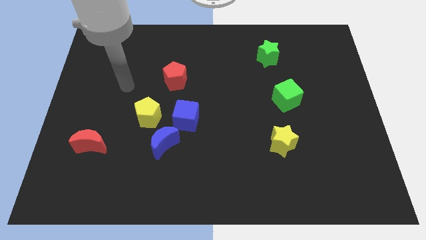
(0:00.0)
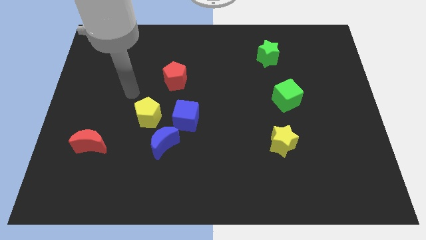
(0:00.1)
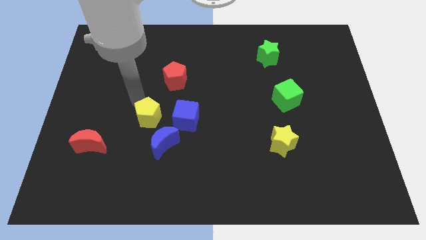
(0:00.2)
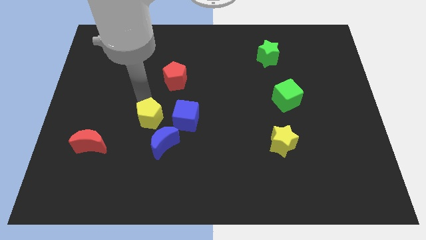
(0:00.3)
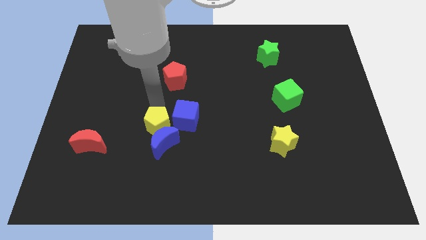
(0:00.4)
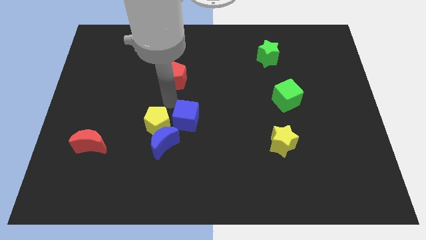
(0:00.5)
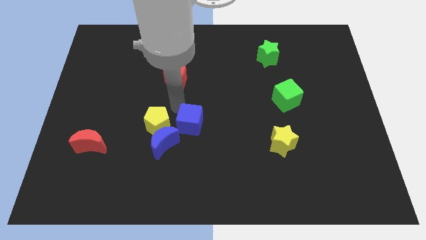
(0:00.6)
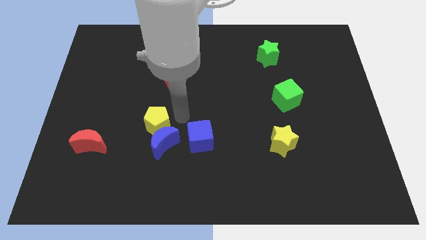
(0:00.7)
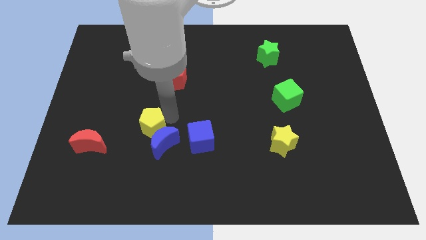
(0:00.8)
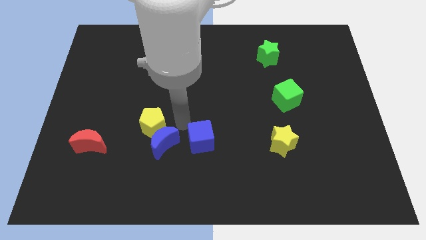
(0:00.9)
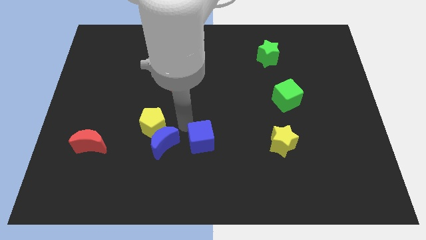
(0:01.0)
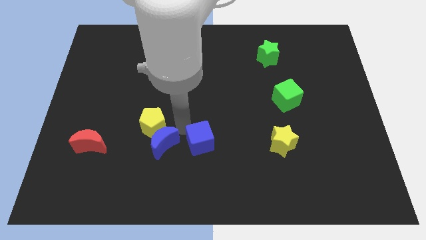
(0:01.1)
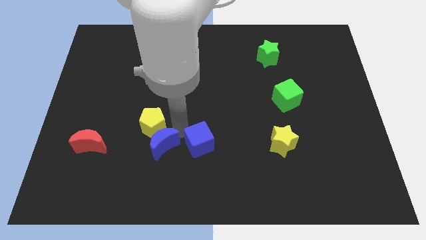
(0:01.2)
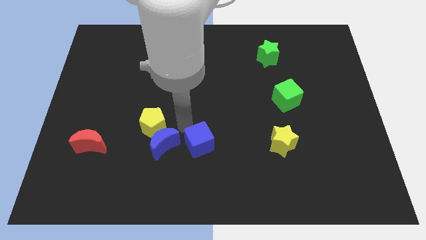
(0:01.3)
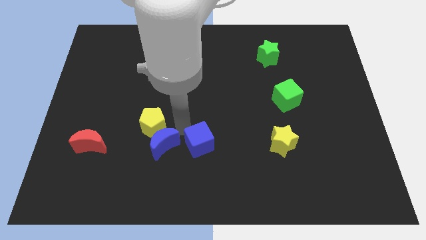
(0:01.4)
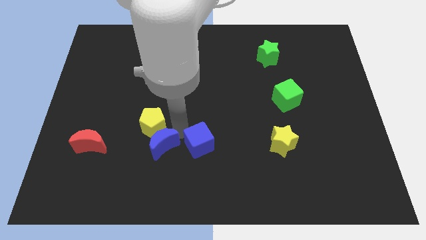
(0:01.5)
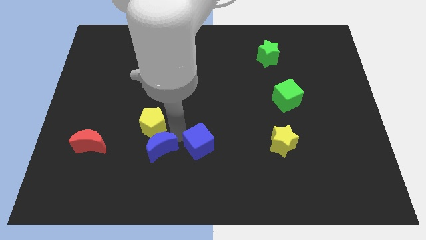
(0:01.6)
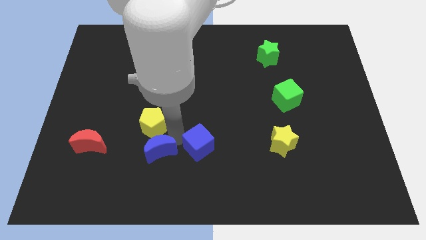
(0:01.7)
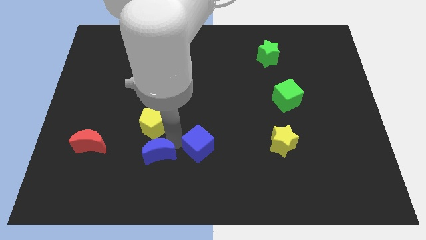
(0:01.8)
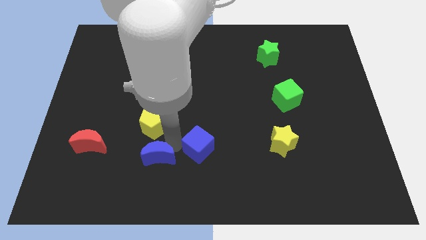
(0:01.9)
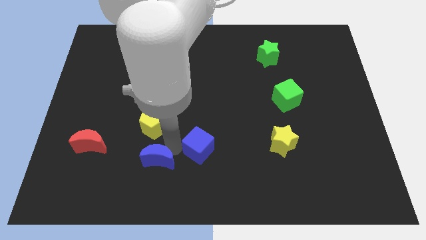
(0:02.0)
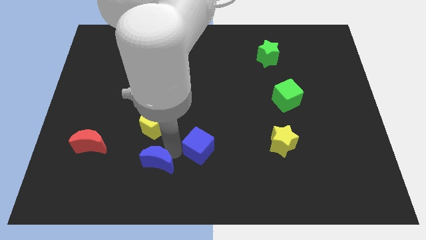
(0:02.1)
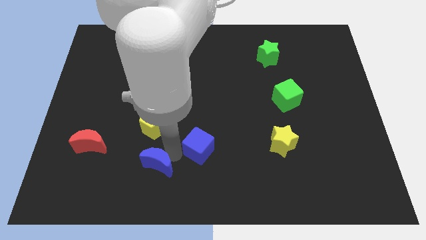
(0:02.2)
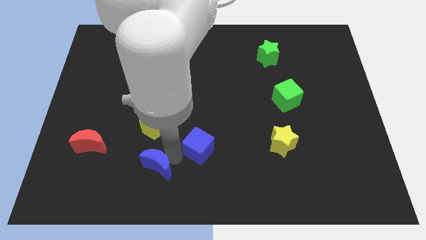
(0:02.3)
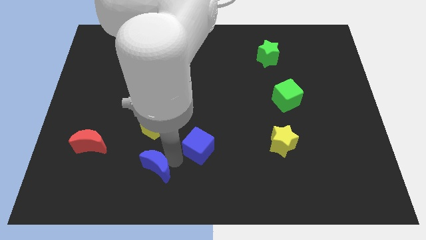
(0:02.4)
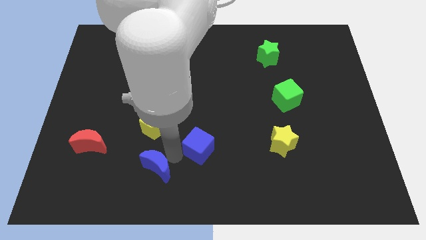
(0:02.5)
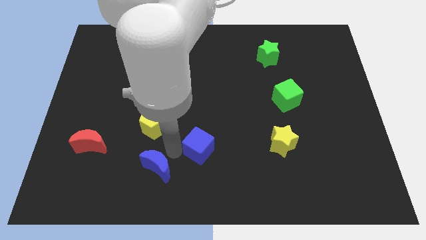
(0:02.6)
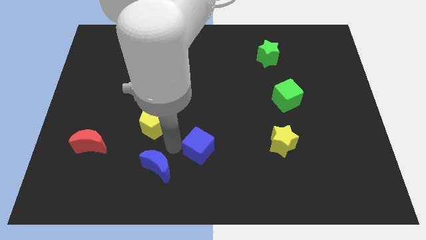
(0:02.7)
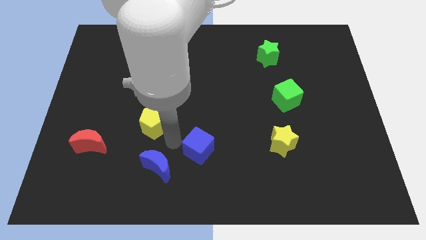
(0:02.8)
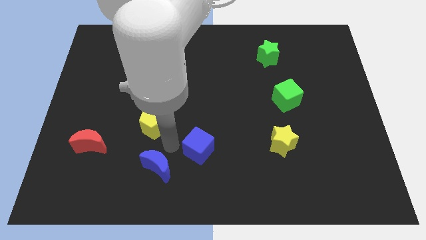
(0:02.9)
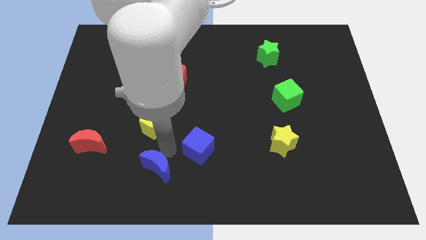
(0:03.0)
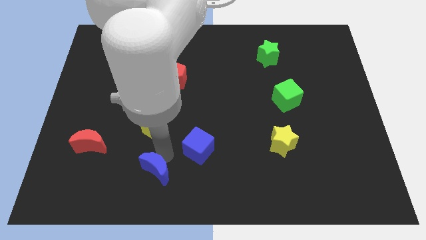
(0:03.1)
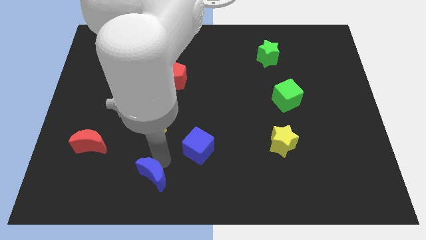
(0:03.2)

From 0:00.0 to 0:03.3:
move the blue moon away from the blue cube and yellow pentagon

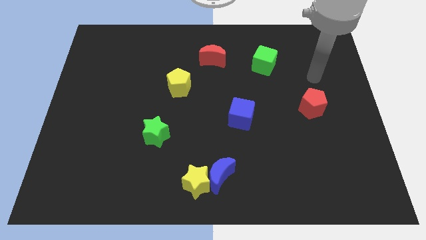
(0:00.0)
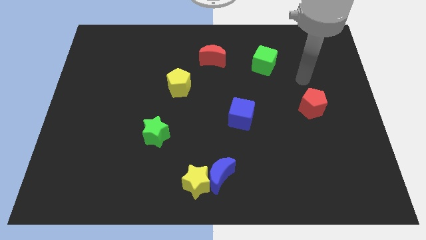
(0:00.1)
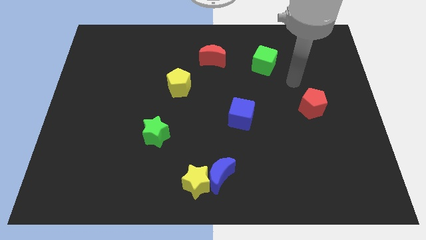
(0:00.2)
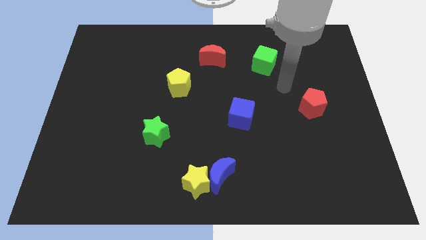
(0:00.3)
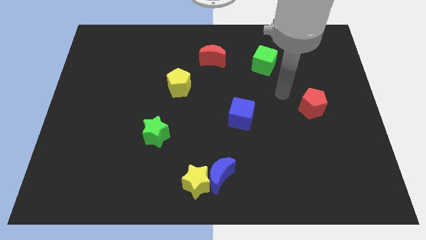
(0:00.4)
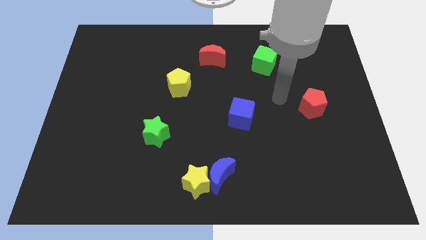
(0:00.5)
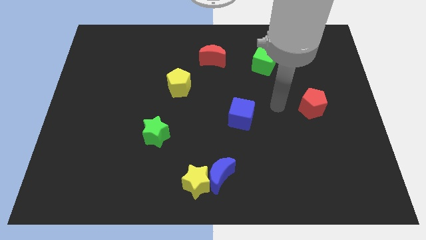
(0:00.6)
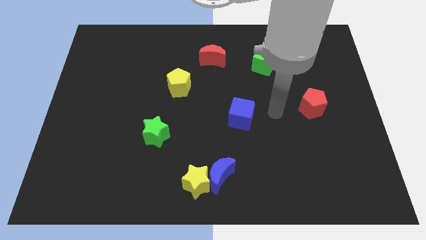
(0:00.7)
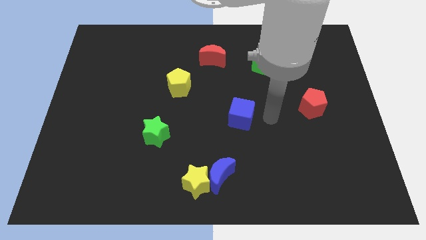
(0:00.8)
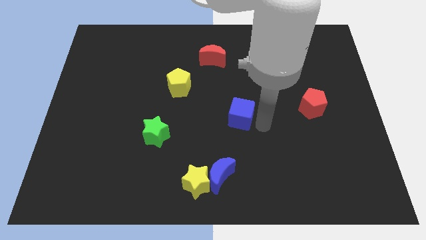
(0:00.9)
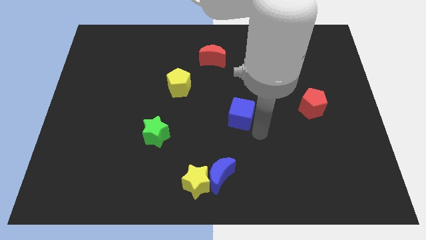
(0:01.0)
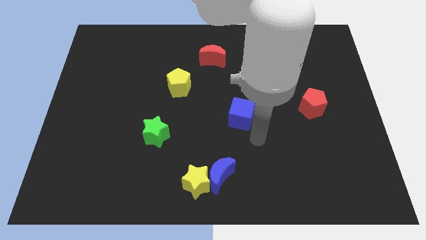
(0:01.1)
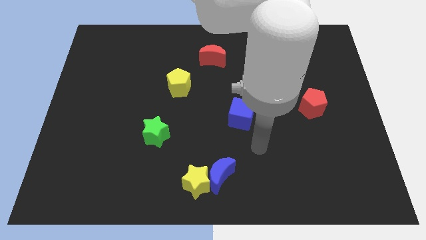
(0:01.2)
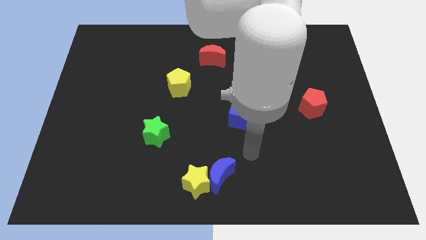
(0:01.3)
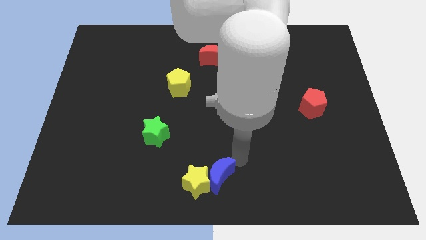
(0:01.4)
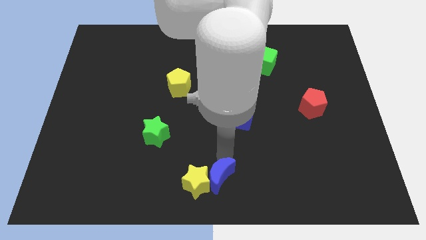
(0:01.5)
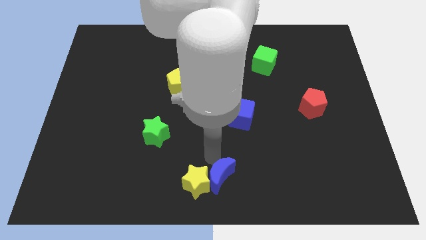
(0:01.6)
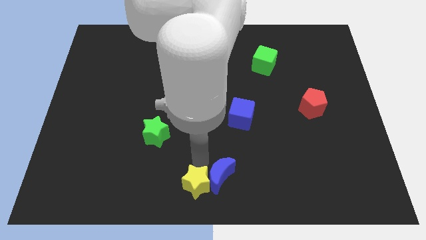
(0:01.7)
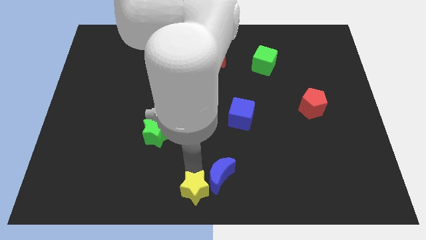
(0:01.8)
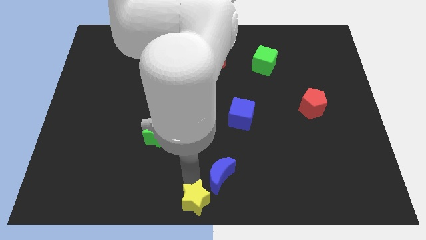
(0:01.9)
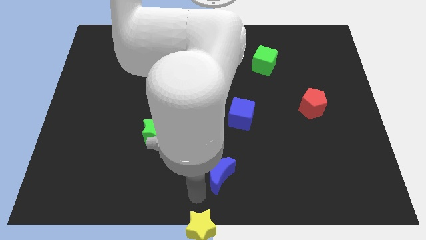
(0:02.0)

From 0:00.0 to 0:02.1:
move the blue moon away from the yellow star

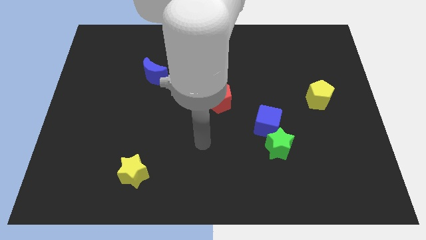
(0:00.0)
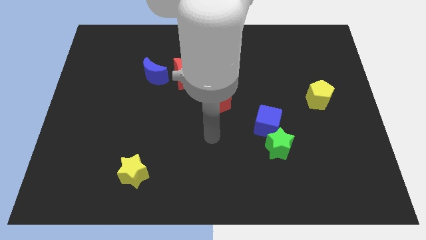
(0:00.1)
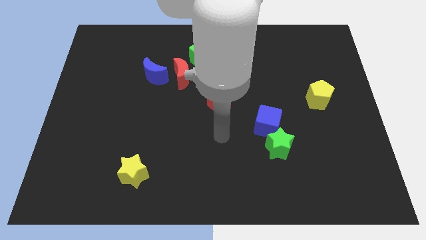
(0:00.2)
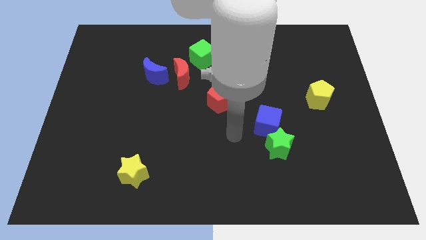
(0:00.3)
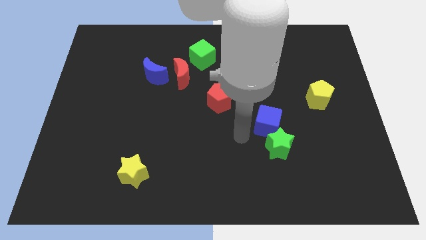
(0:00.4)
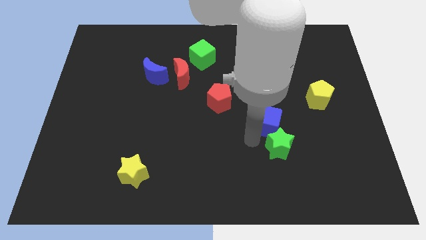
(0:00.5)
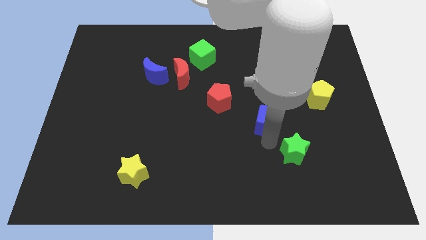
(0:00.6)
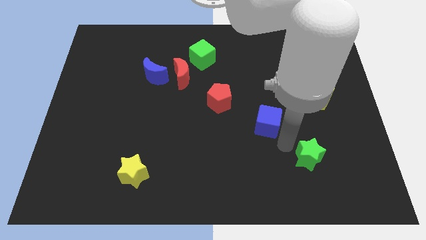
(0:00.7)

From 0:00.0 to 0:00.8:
move the blue cube away from the green star

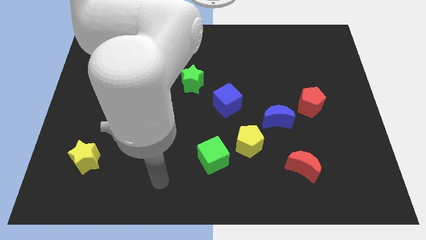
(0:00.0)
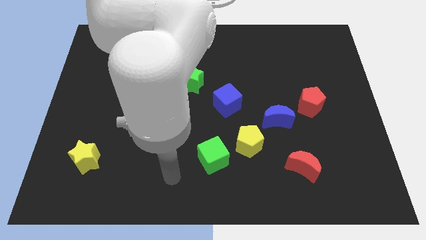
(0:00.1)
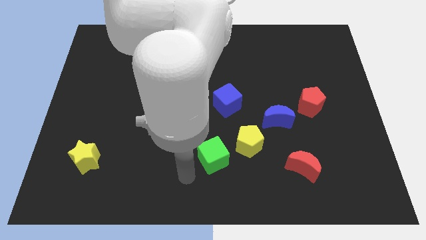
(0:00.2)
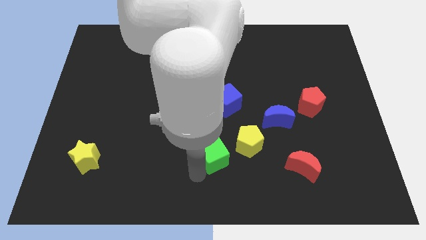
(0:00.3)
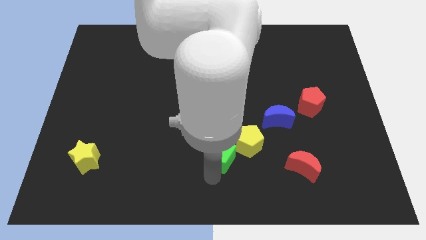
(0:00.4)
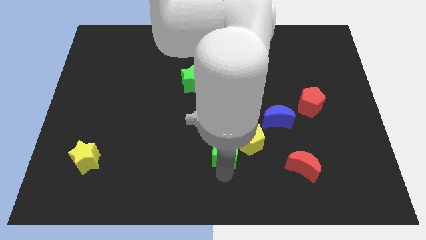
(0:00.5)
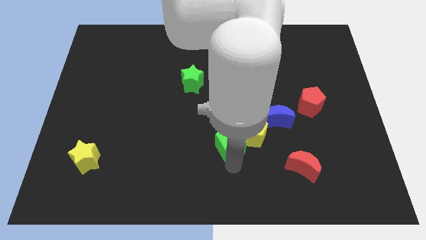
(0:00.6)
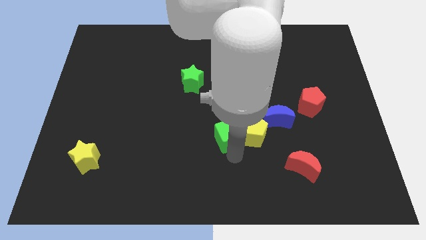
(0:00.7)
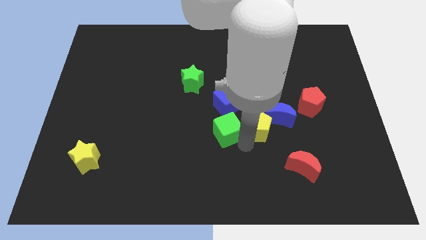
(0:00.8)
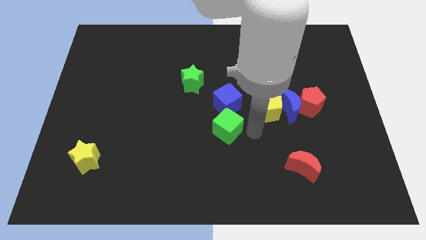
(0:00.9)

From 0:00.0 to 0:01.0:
move the green cube away from the yellow pentagon

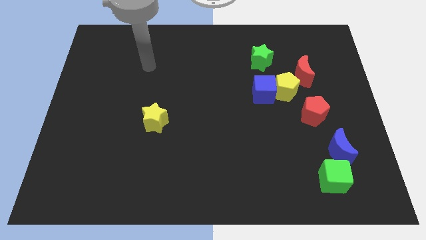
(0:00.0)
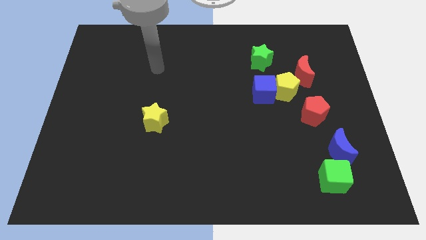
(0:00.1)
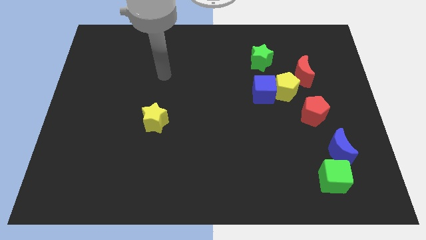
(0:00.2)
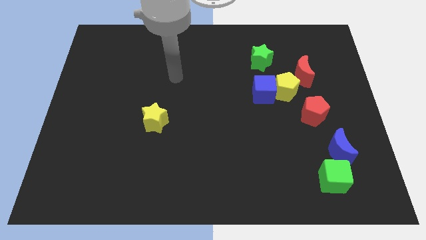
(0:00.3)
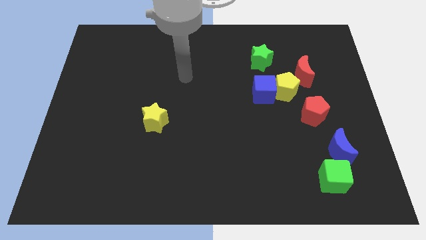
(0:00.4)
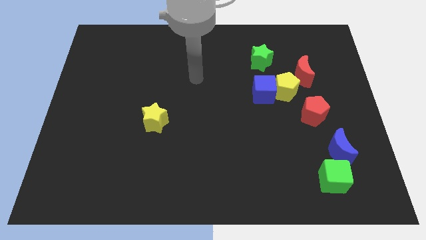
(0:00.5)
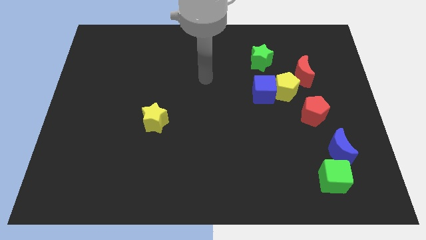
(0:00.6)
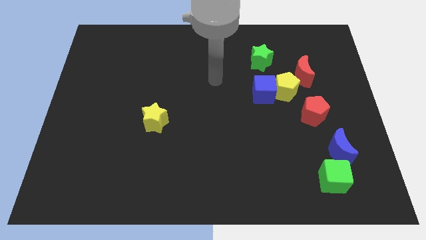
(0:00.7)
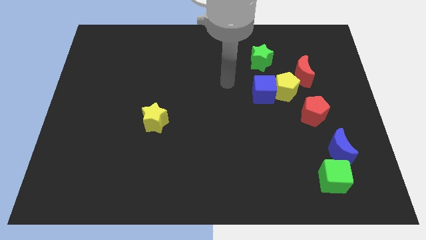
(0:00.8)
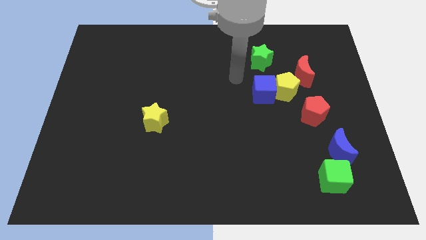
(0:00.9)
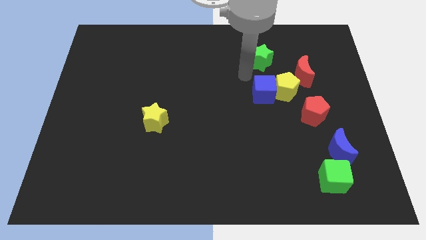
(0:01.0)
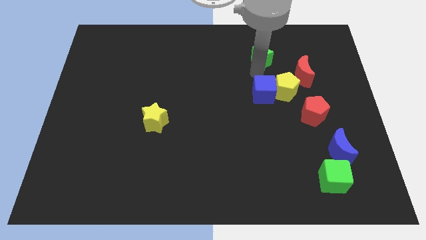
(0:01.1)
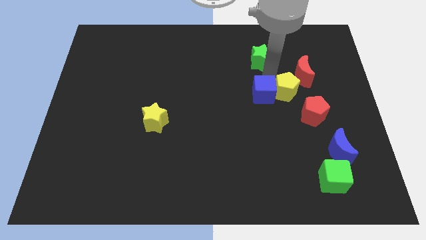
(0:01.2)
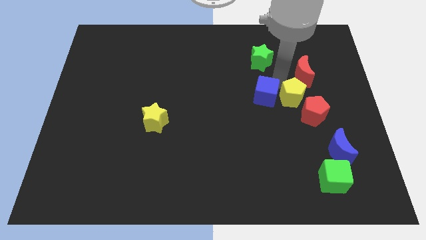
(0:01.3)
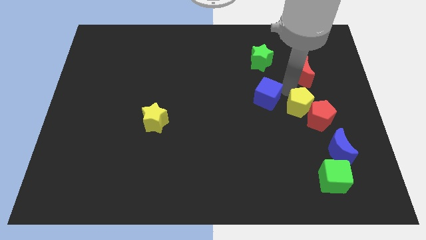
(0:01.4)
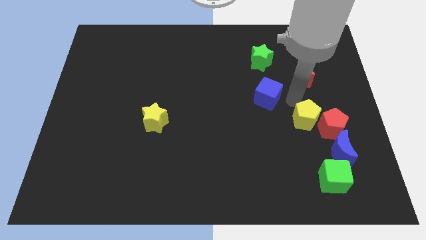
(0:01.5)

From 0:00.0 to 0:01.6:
pull the blue cube apart from the yellow pentagon

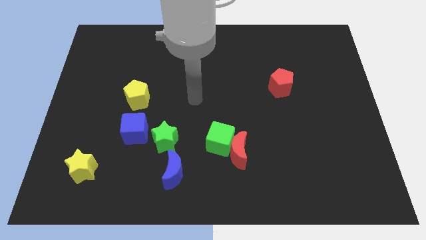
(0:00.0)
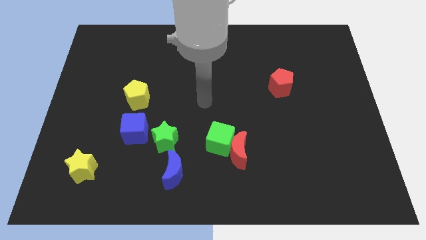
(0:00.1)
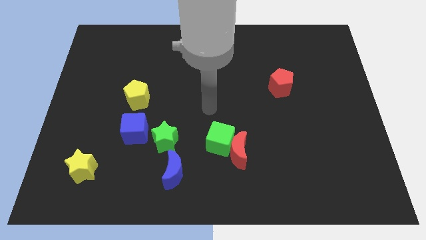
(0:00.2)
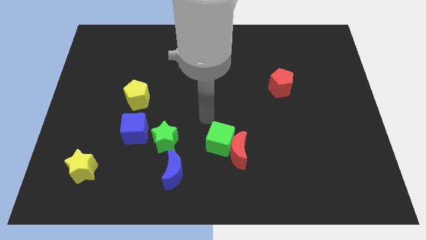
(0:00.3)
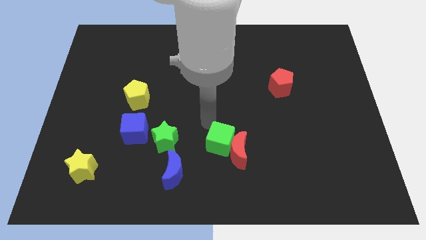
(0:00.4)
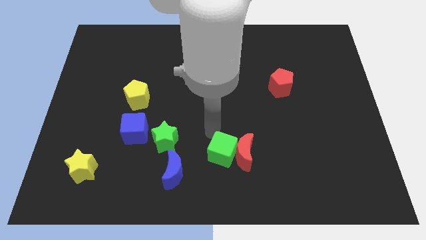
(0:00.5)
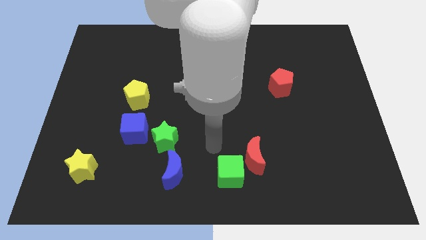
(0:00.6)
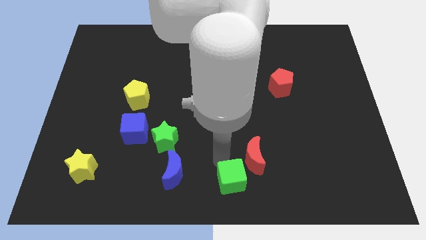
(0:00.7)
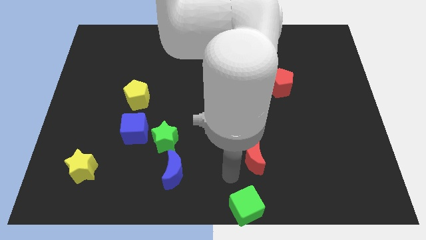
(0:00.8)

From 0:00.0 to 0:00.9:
pull the red moon apart from the green cube
